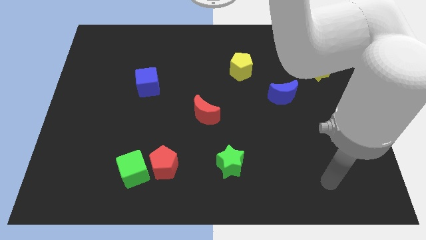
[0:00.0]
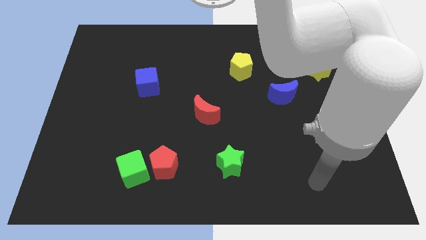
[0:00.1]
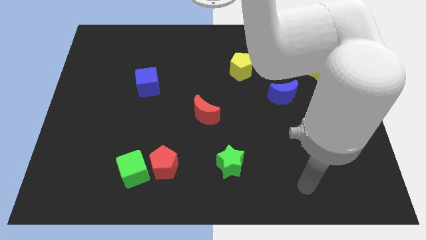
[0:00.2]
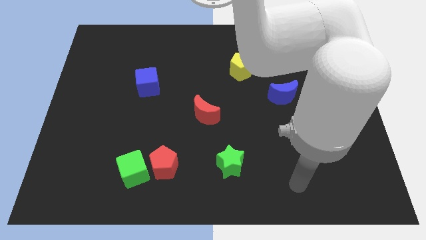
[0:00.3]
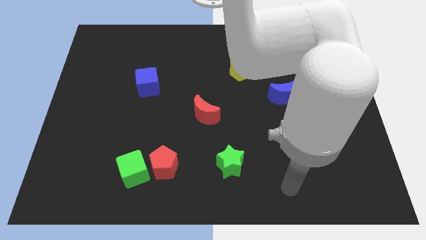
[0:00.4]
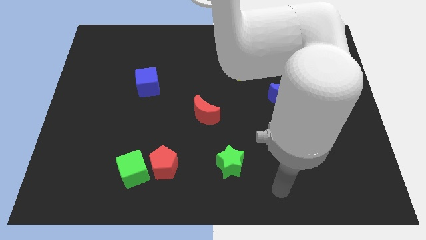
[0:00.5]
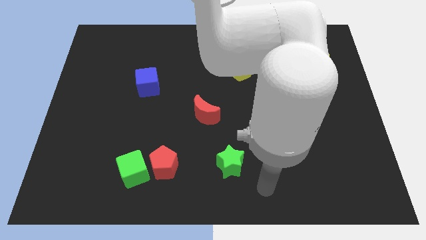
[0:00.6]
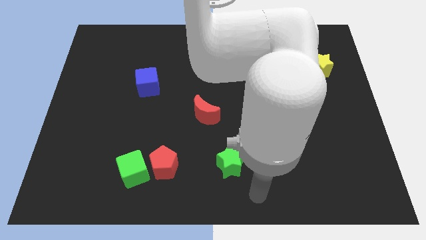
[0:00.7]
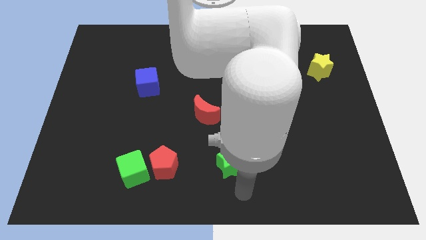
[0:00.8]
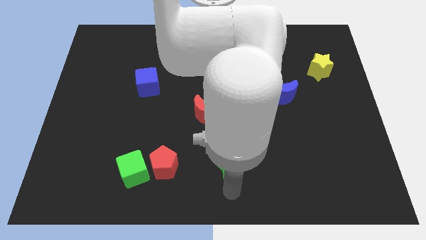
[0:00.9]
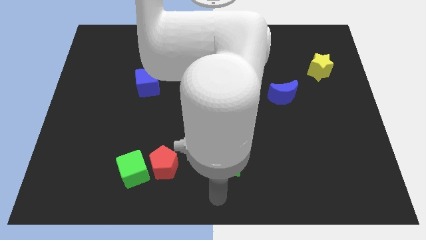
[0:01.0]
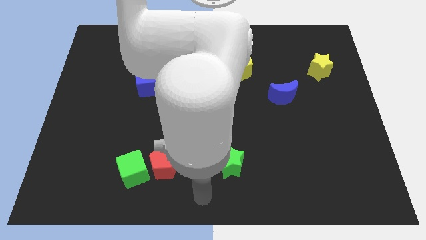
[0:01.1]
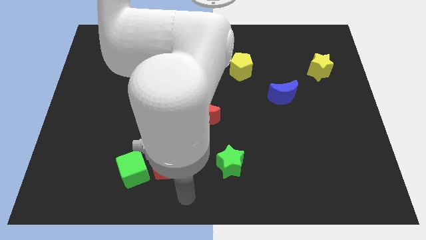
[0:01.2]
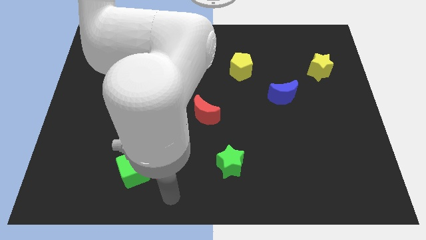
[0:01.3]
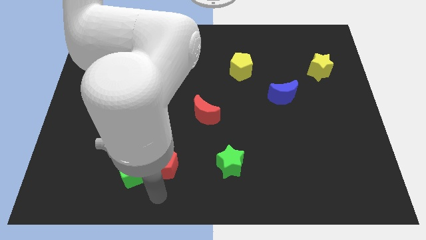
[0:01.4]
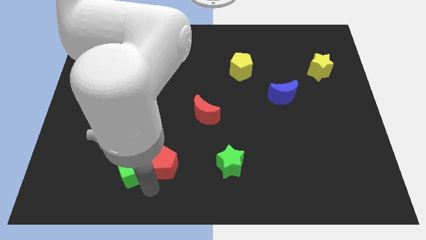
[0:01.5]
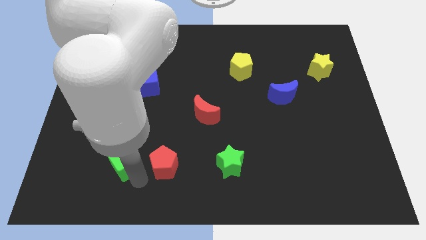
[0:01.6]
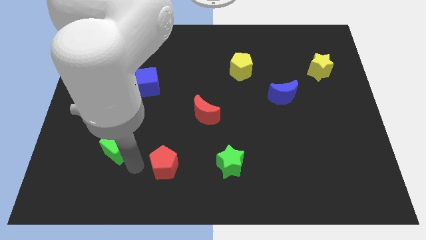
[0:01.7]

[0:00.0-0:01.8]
pull the red pentagon apart from the green cube

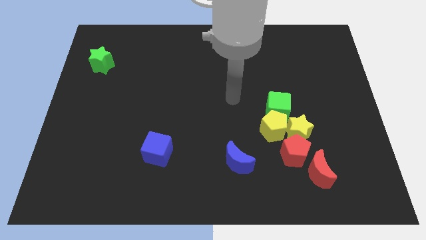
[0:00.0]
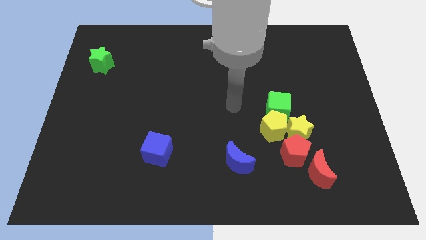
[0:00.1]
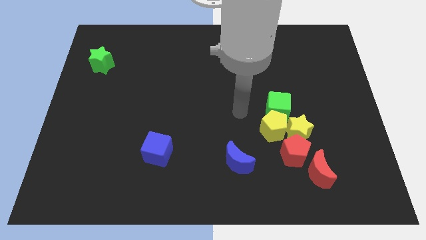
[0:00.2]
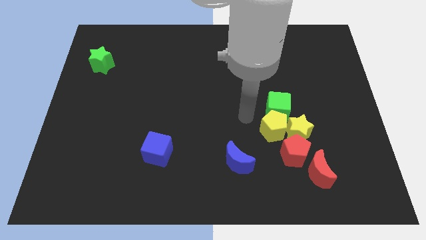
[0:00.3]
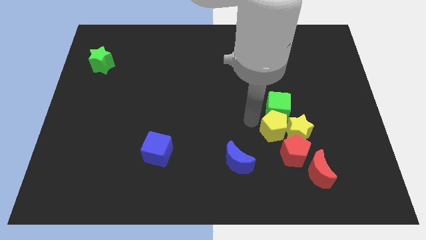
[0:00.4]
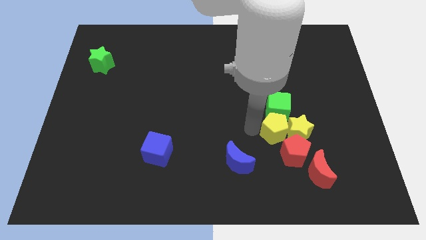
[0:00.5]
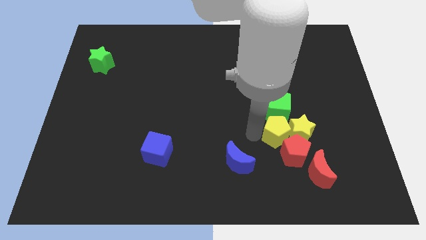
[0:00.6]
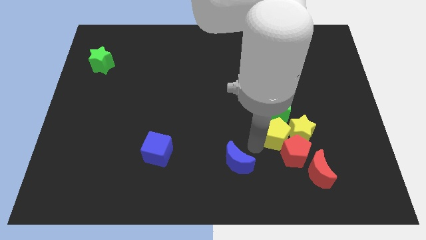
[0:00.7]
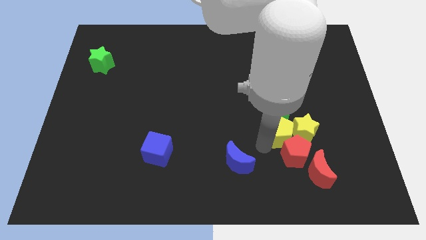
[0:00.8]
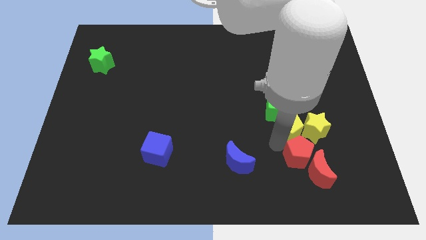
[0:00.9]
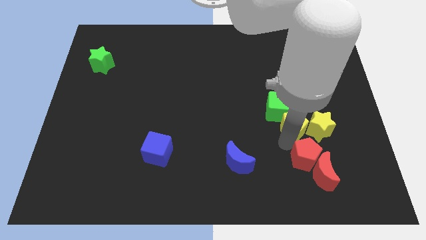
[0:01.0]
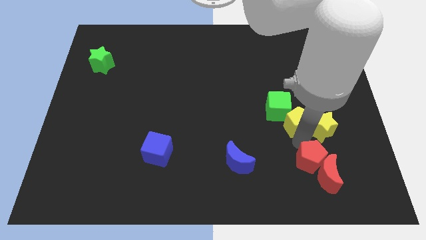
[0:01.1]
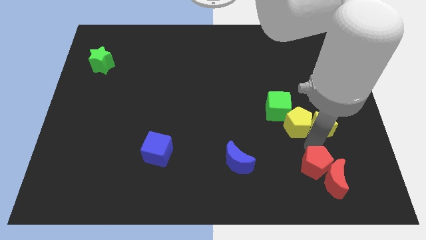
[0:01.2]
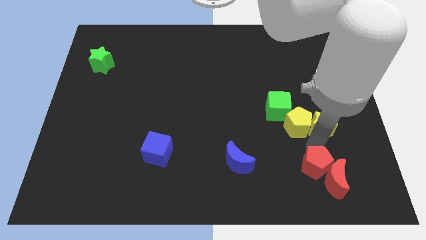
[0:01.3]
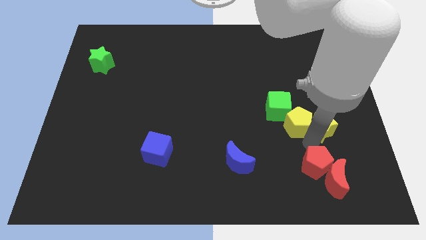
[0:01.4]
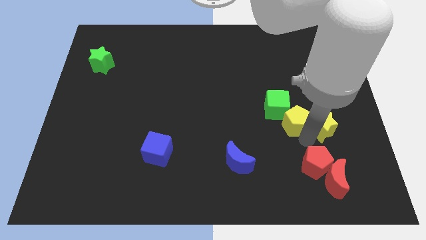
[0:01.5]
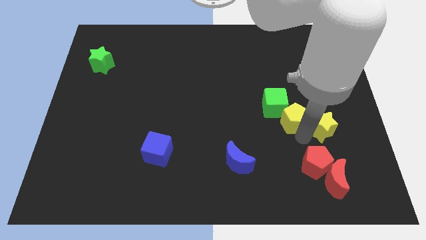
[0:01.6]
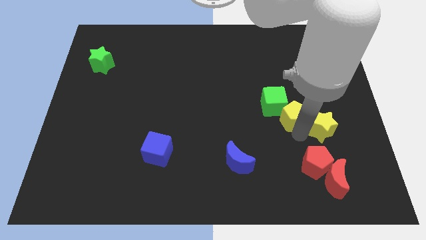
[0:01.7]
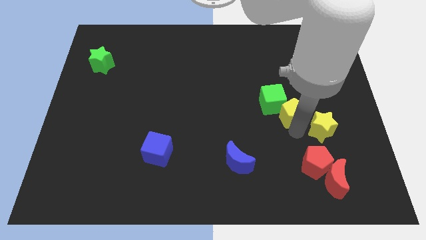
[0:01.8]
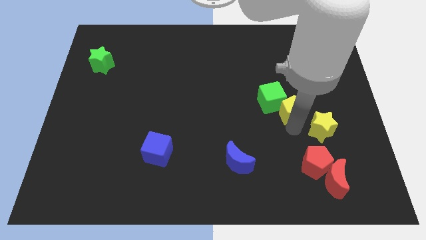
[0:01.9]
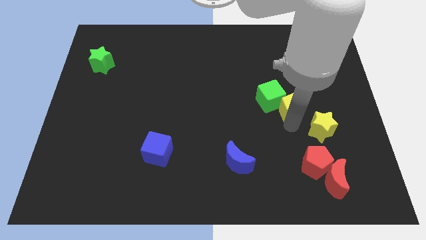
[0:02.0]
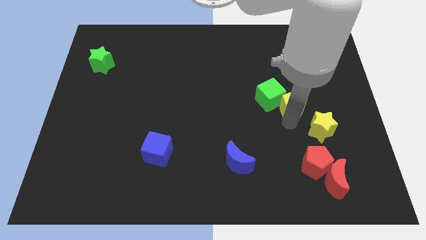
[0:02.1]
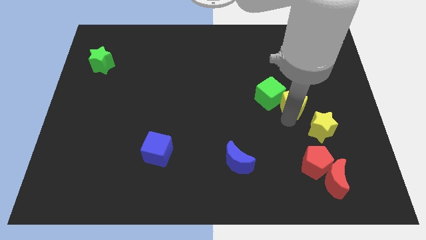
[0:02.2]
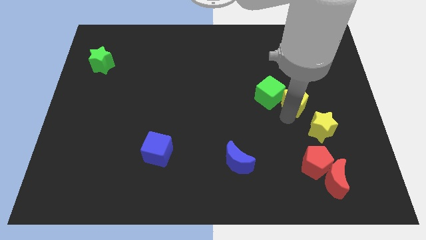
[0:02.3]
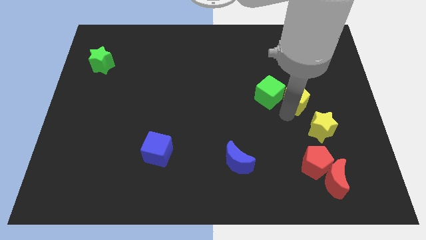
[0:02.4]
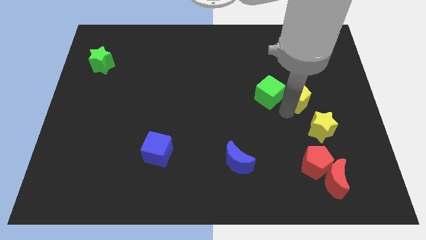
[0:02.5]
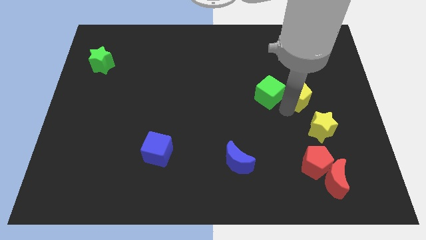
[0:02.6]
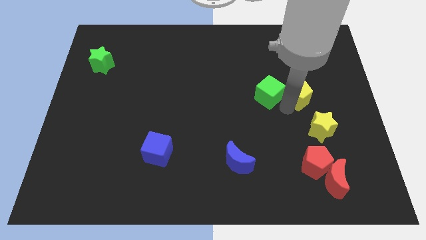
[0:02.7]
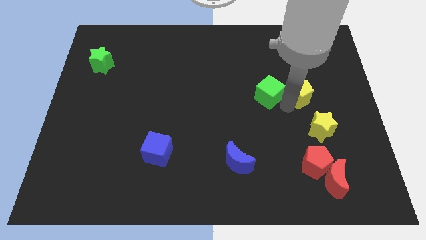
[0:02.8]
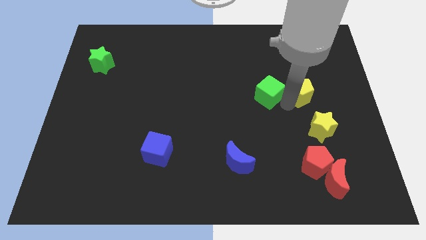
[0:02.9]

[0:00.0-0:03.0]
separate the yellow pentagon from the yellow star, green cube, and red pentagon

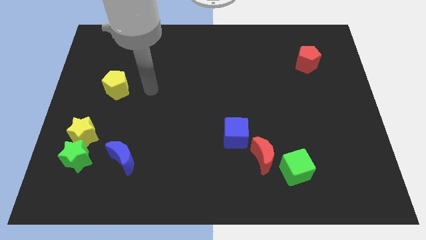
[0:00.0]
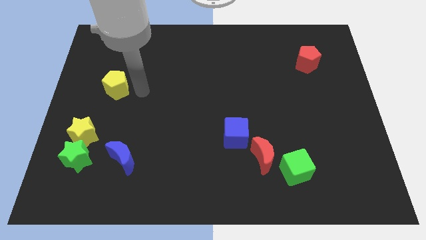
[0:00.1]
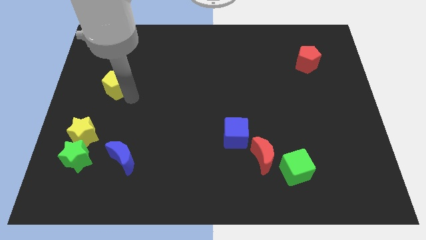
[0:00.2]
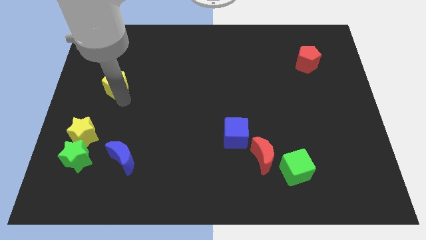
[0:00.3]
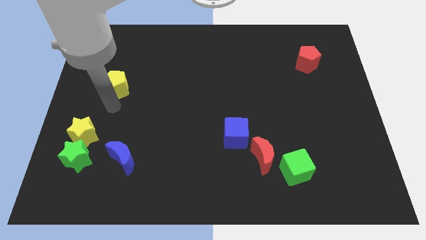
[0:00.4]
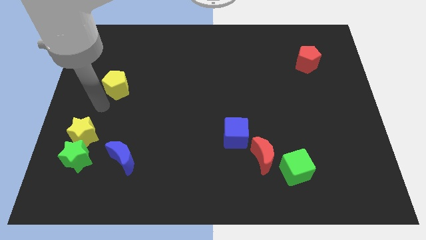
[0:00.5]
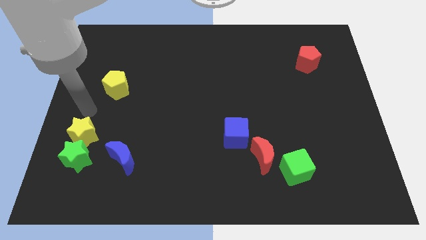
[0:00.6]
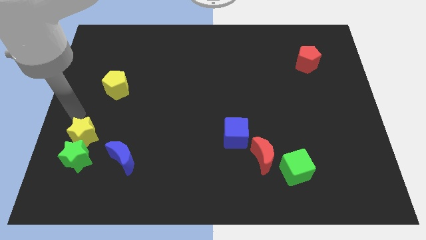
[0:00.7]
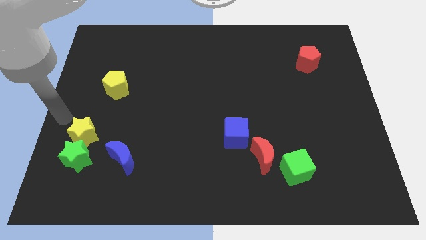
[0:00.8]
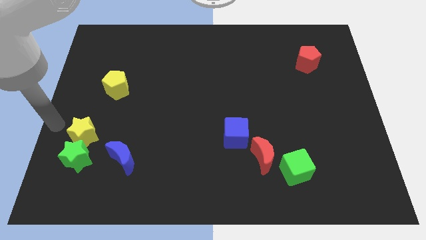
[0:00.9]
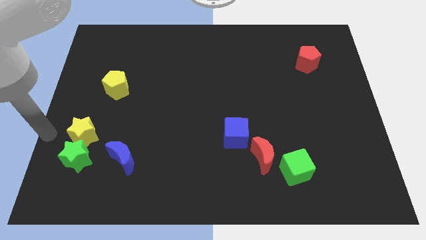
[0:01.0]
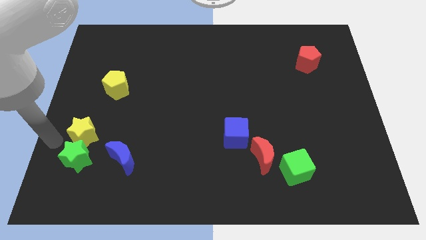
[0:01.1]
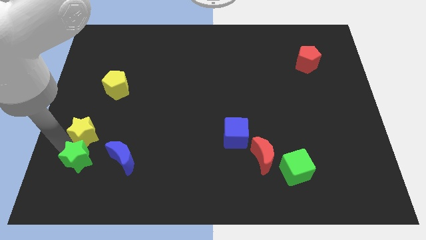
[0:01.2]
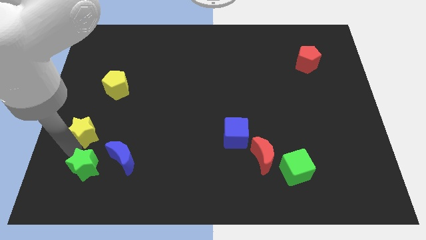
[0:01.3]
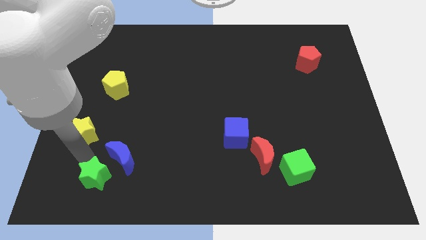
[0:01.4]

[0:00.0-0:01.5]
move the yellow star away from the green star

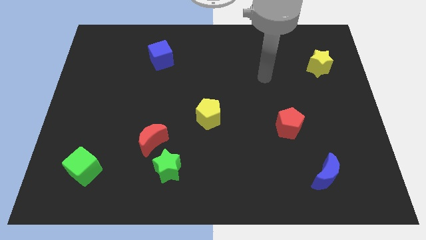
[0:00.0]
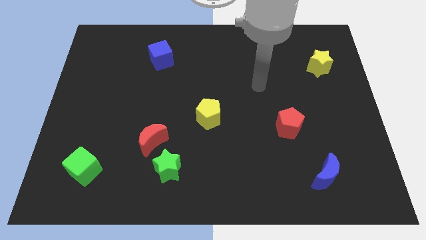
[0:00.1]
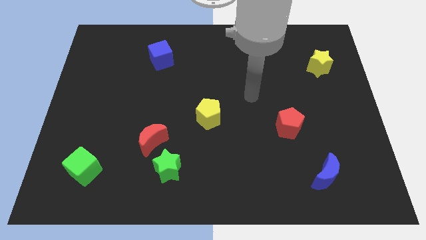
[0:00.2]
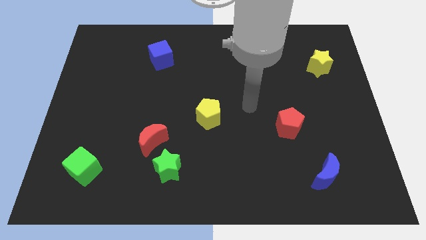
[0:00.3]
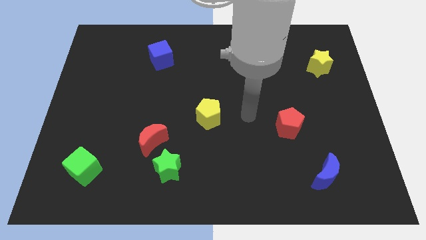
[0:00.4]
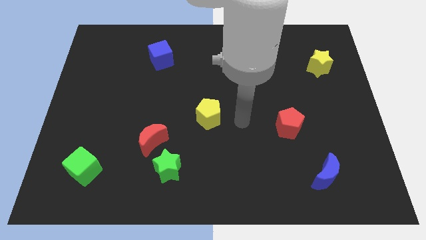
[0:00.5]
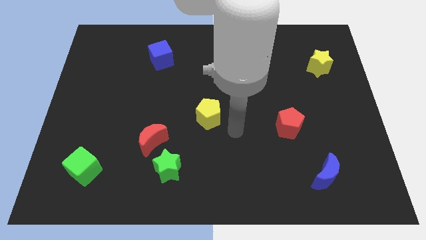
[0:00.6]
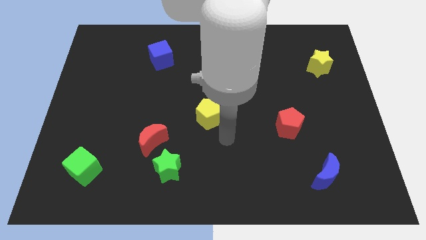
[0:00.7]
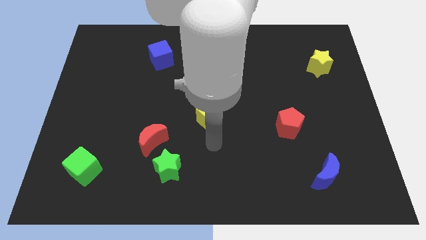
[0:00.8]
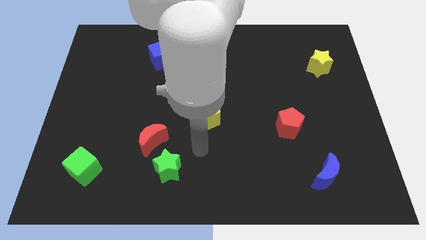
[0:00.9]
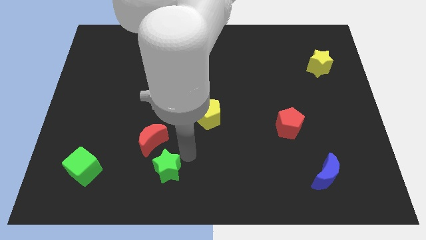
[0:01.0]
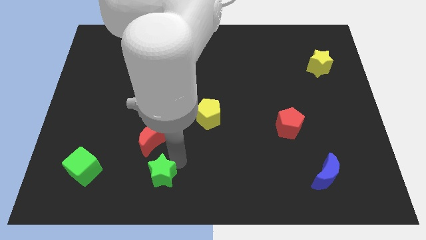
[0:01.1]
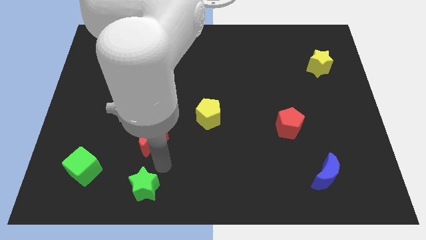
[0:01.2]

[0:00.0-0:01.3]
separate the red moon from the green star

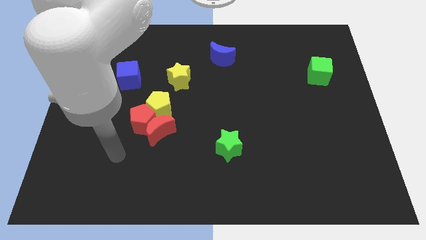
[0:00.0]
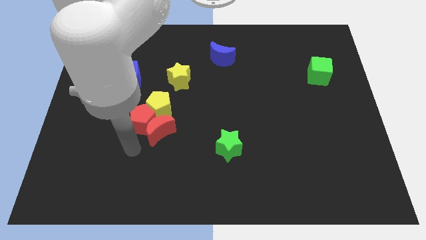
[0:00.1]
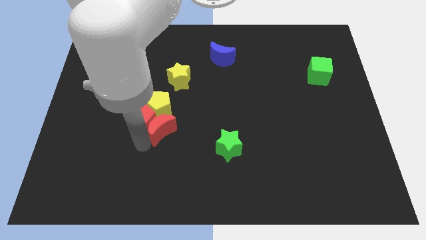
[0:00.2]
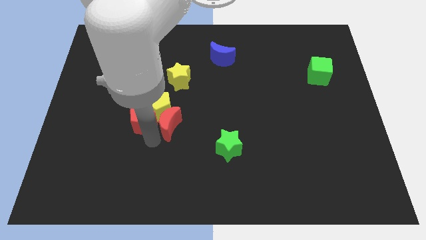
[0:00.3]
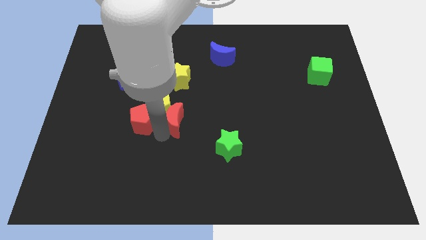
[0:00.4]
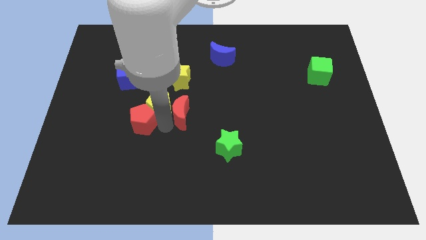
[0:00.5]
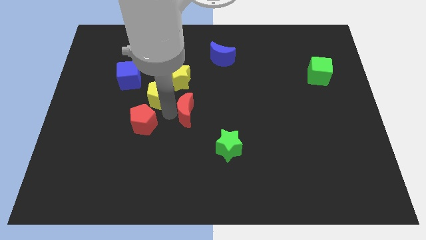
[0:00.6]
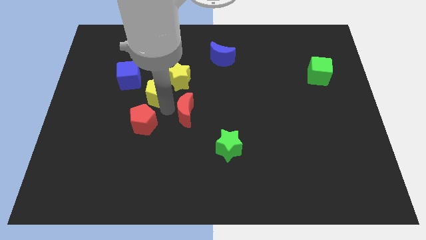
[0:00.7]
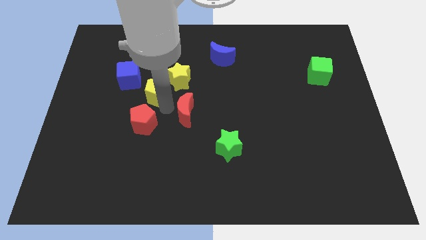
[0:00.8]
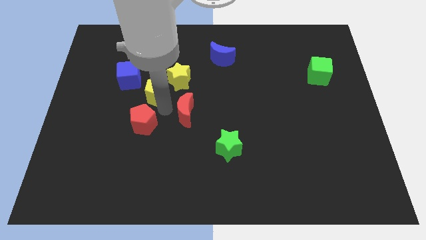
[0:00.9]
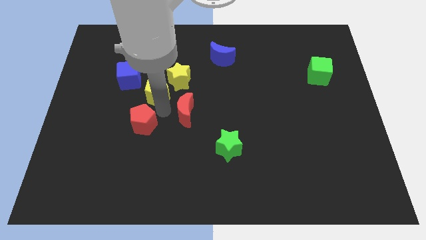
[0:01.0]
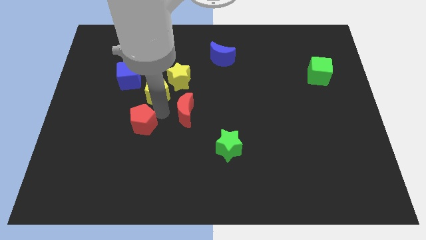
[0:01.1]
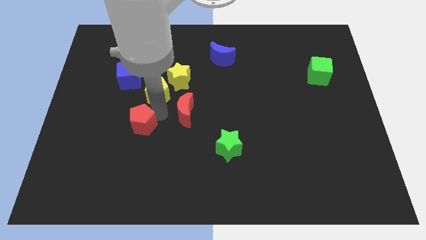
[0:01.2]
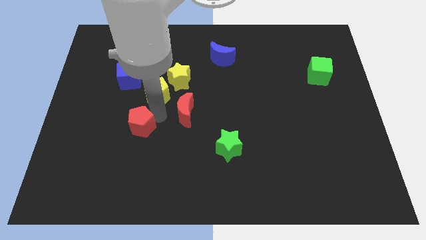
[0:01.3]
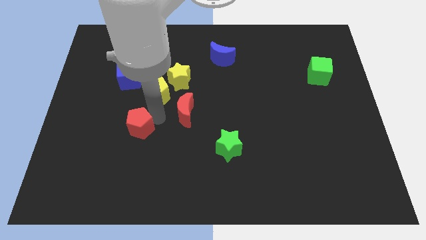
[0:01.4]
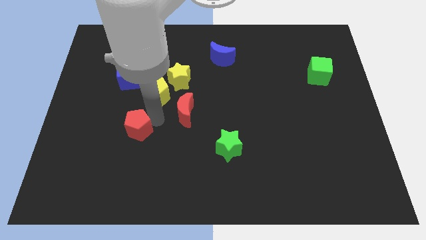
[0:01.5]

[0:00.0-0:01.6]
pull the red pentagon apart from the red moon and yellow pentagon

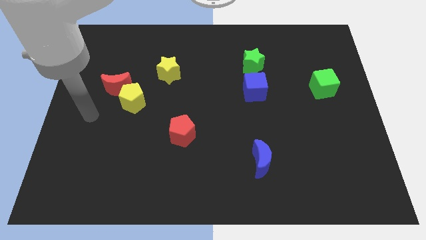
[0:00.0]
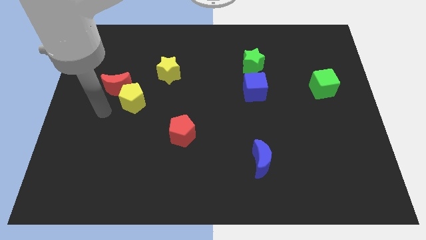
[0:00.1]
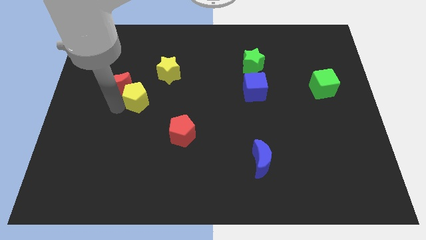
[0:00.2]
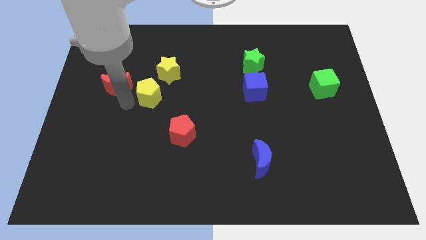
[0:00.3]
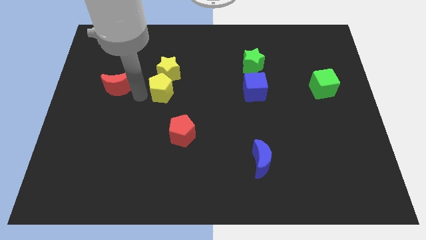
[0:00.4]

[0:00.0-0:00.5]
move the red moon away from the yellow pentagon
